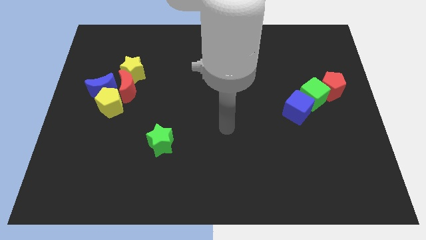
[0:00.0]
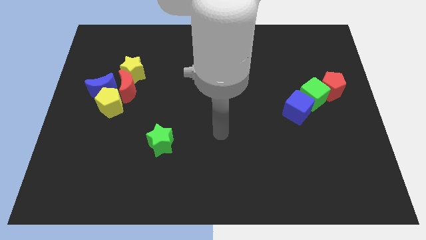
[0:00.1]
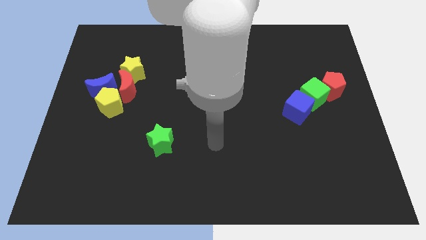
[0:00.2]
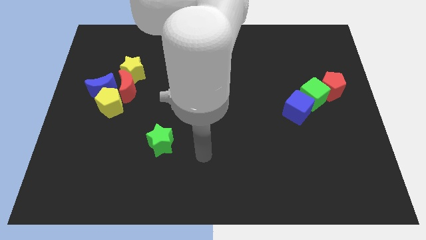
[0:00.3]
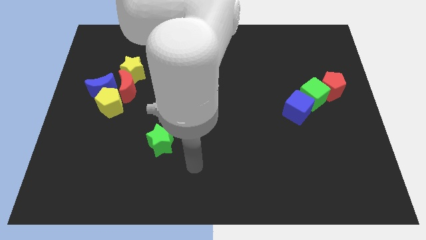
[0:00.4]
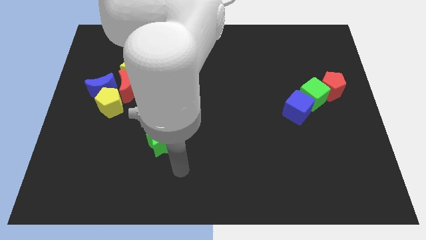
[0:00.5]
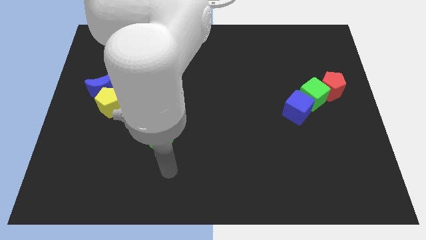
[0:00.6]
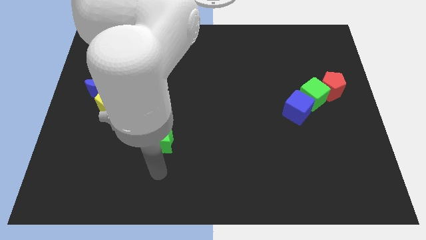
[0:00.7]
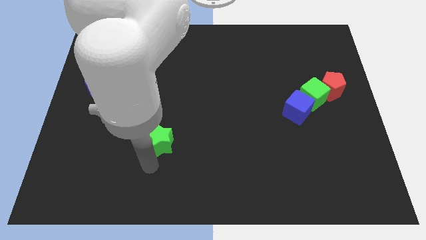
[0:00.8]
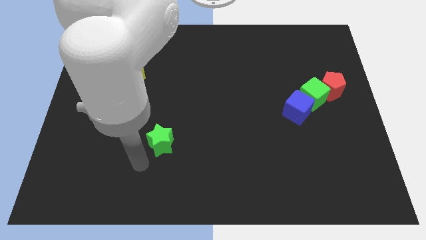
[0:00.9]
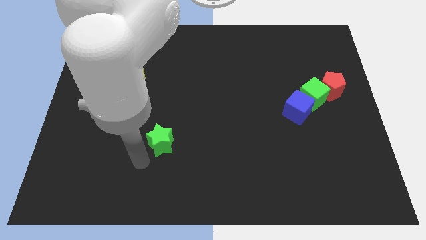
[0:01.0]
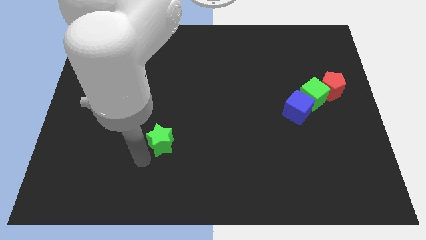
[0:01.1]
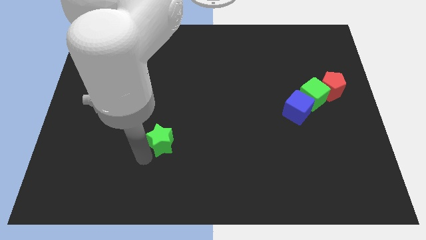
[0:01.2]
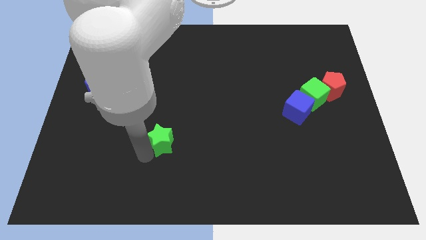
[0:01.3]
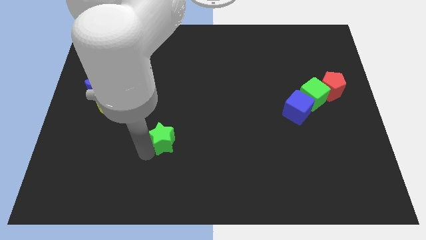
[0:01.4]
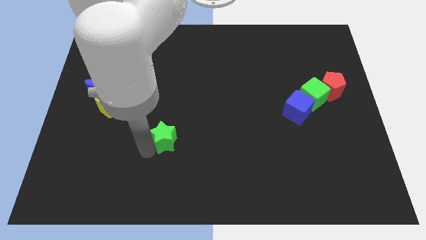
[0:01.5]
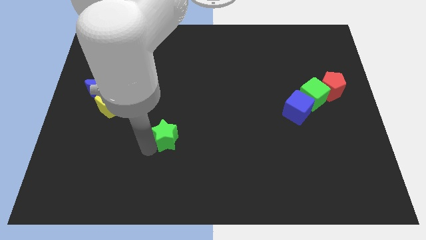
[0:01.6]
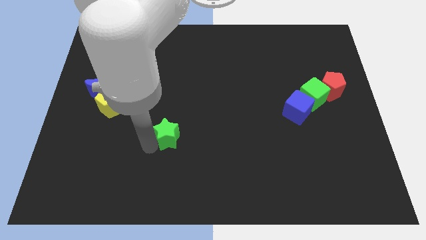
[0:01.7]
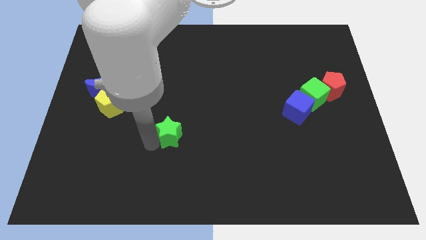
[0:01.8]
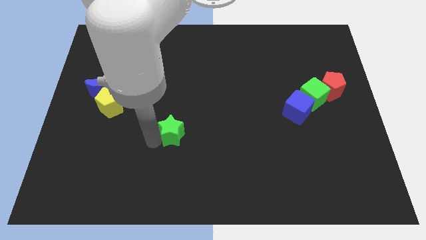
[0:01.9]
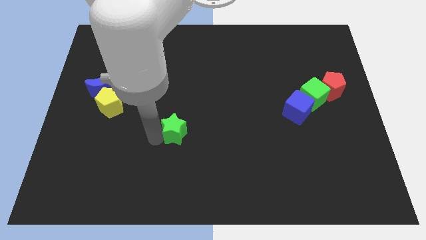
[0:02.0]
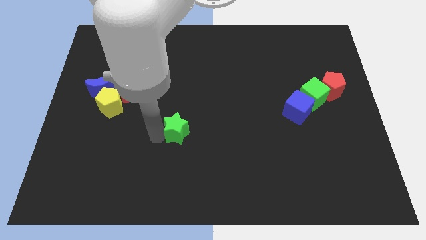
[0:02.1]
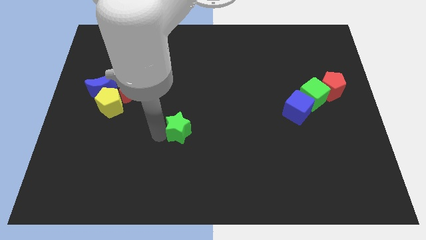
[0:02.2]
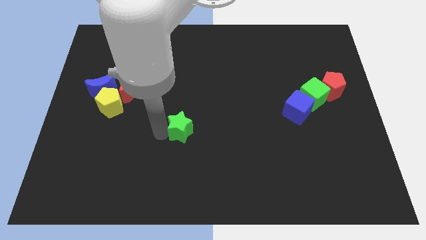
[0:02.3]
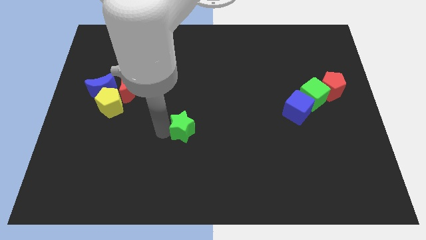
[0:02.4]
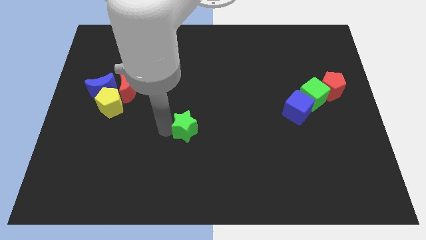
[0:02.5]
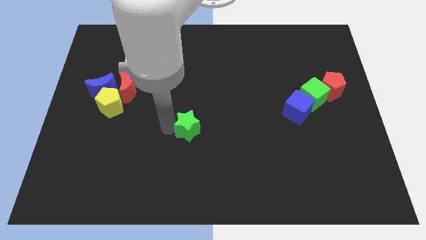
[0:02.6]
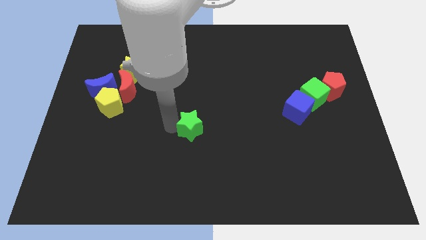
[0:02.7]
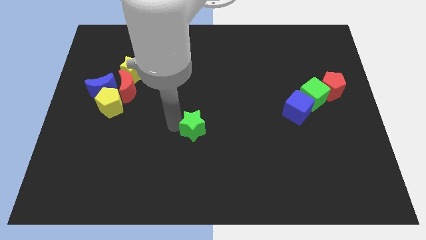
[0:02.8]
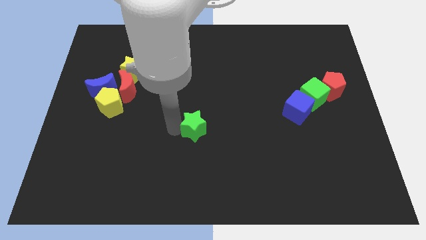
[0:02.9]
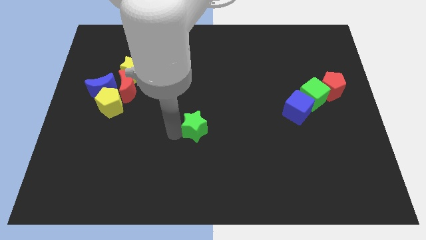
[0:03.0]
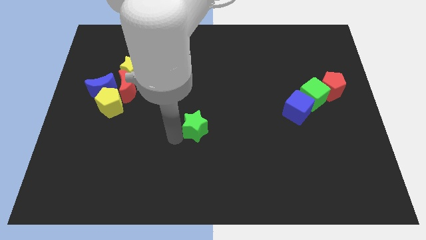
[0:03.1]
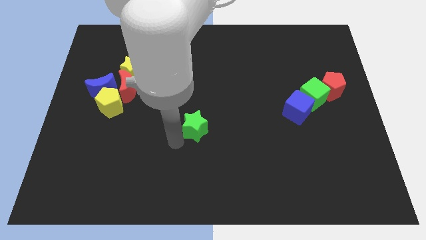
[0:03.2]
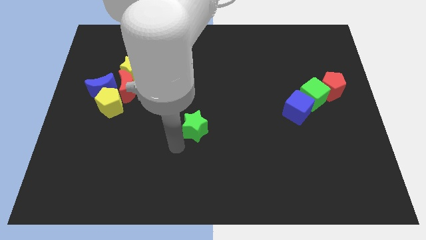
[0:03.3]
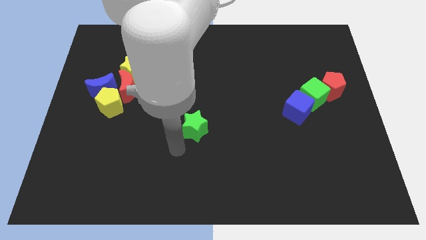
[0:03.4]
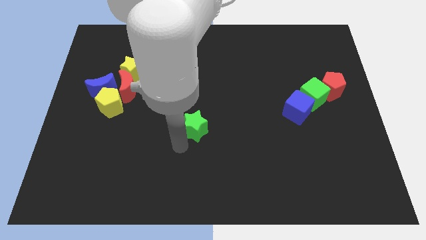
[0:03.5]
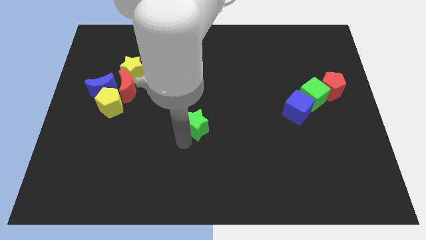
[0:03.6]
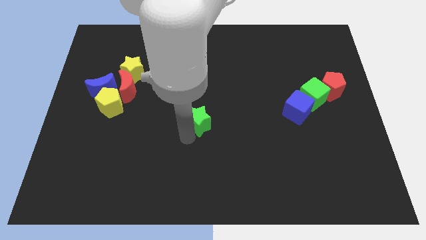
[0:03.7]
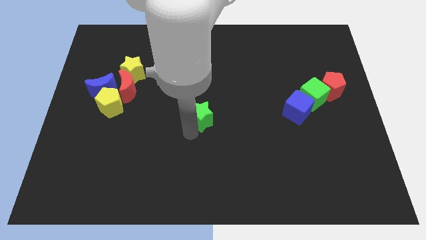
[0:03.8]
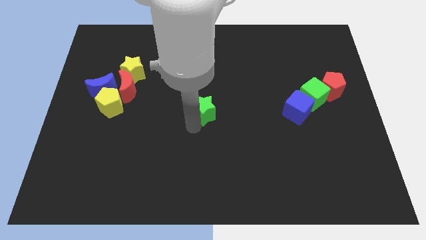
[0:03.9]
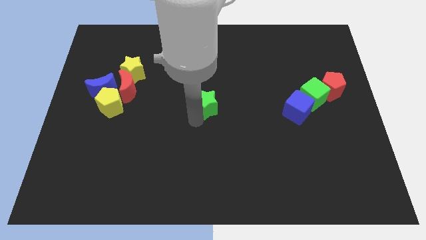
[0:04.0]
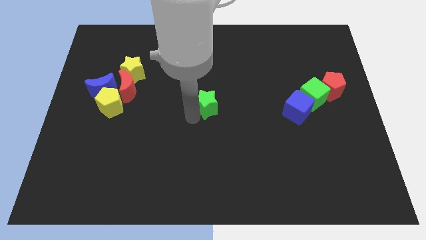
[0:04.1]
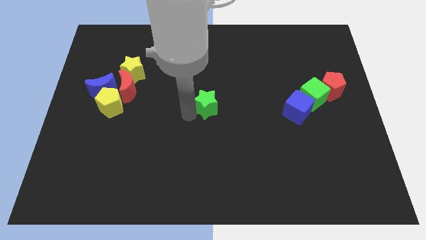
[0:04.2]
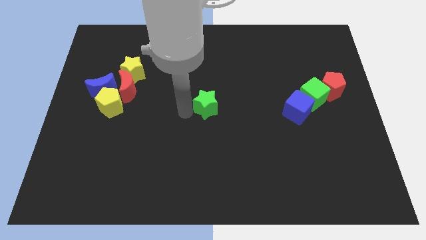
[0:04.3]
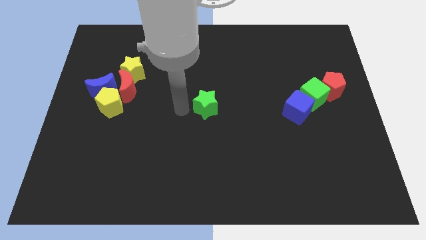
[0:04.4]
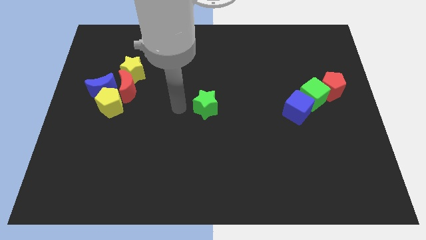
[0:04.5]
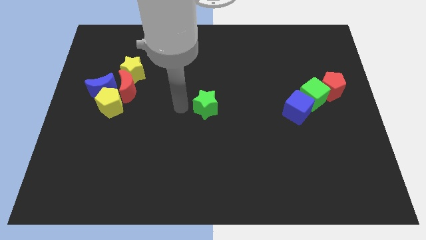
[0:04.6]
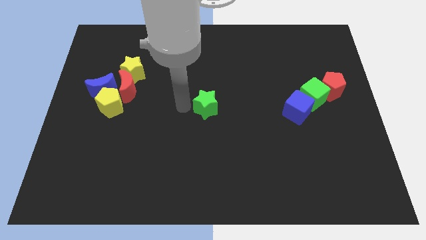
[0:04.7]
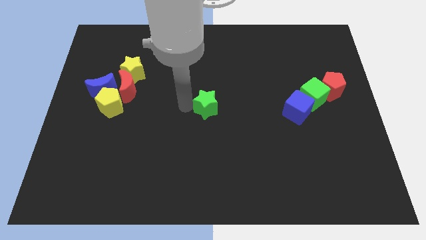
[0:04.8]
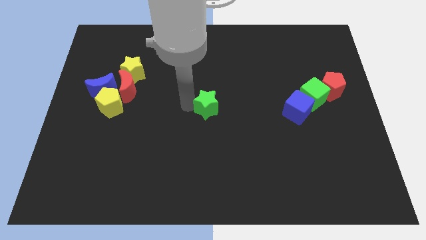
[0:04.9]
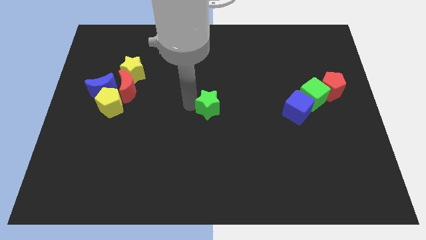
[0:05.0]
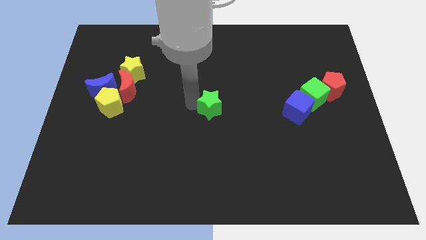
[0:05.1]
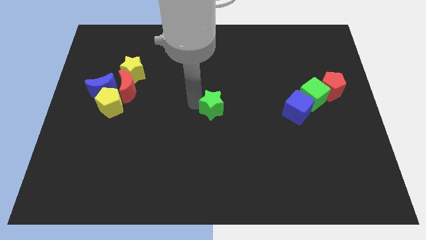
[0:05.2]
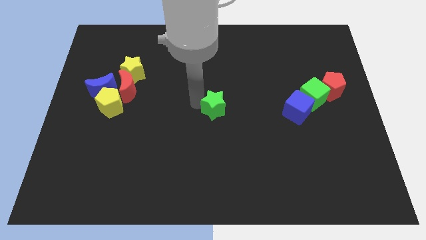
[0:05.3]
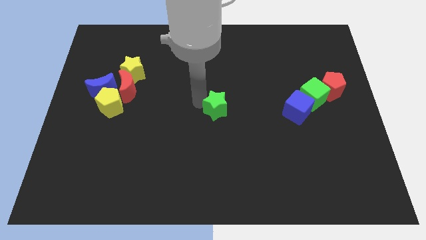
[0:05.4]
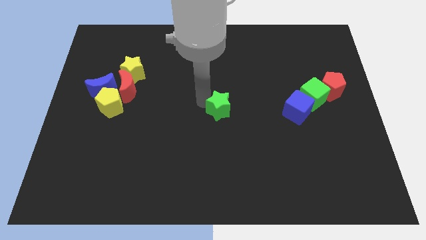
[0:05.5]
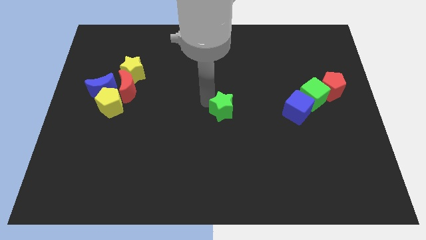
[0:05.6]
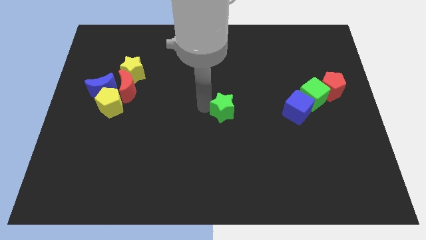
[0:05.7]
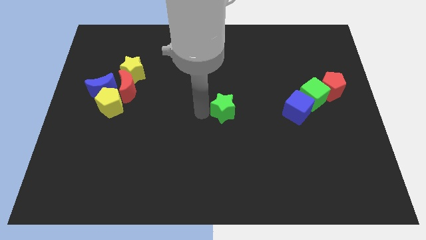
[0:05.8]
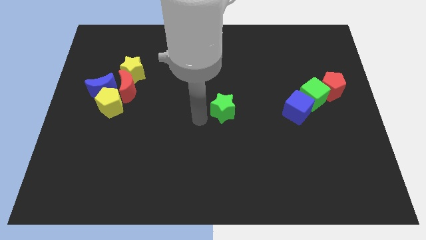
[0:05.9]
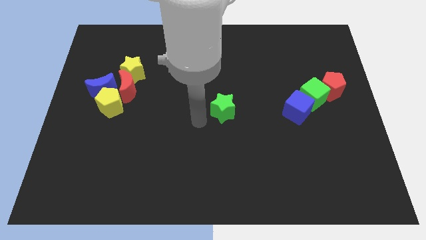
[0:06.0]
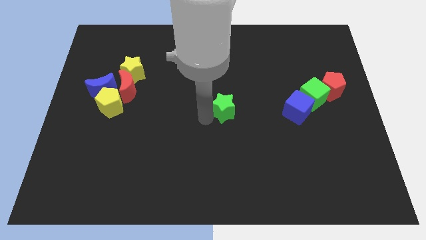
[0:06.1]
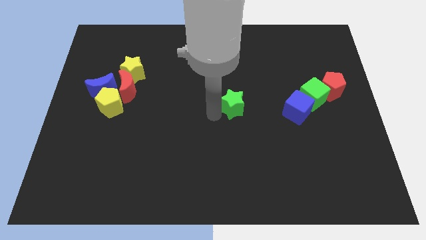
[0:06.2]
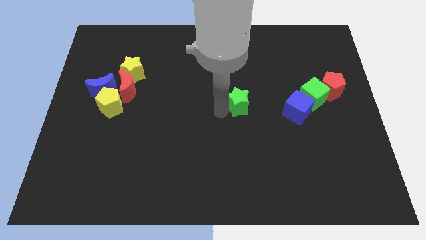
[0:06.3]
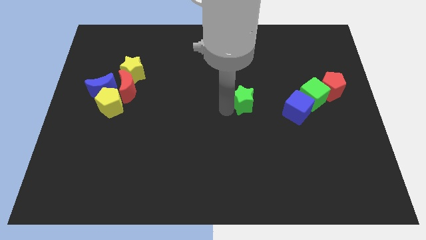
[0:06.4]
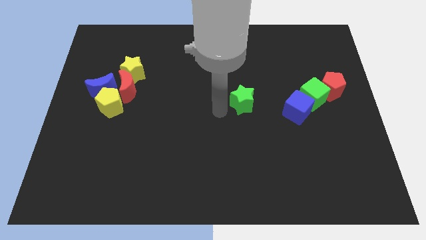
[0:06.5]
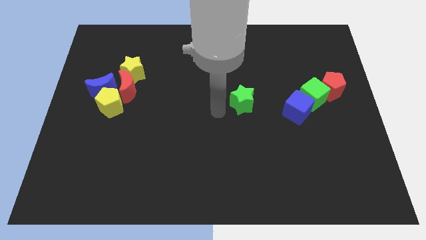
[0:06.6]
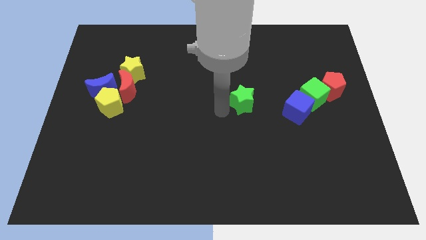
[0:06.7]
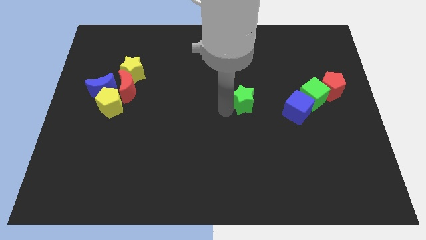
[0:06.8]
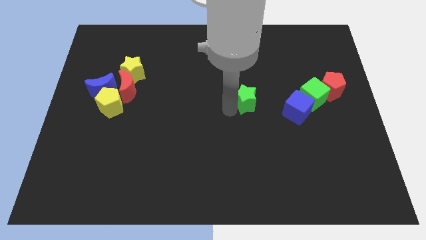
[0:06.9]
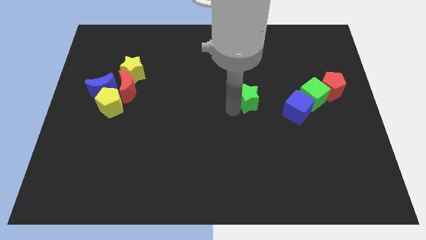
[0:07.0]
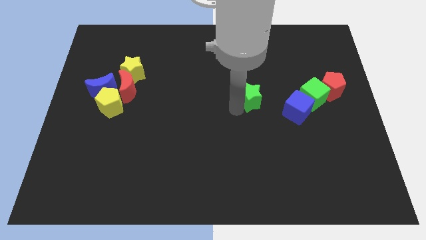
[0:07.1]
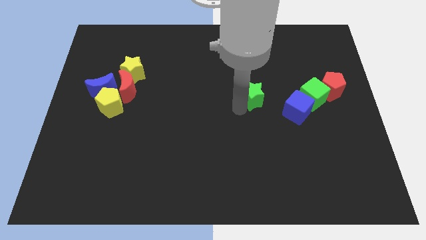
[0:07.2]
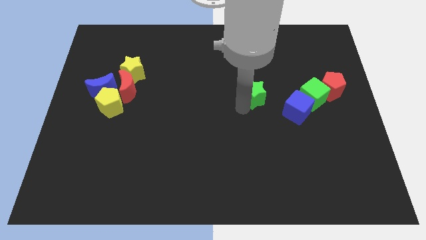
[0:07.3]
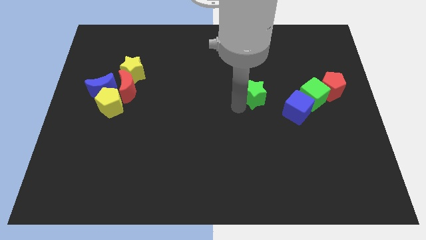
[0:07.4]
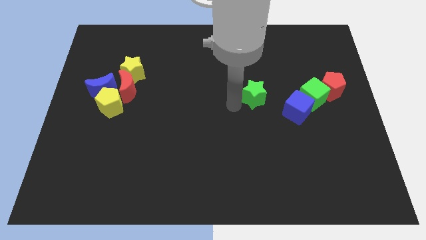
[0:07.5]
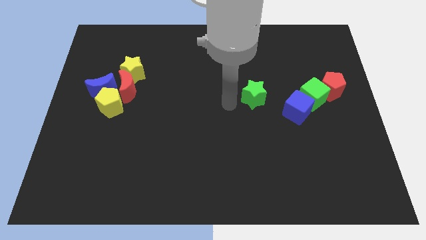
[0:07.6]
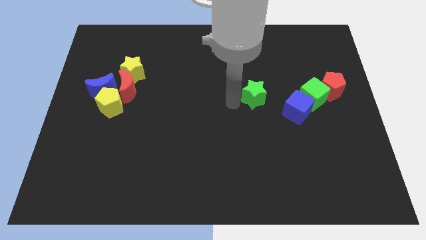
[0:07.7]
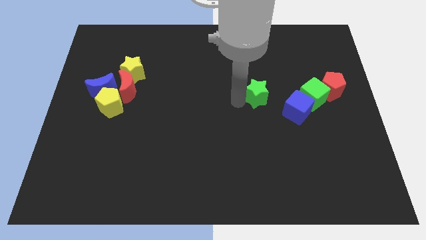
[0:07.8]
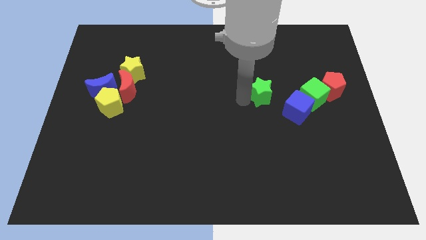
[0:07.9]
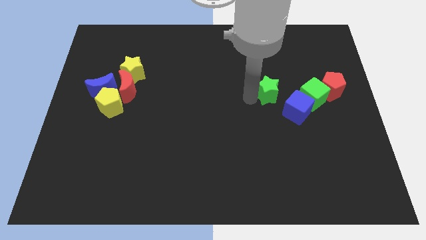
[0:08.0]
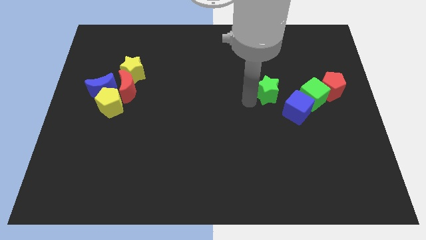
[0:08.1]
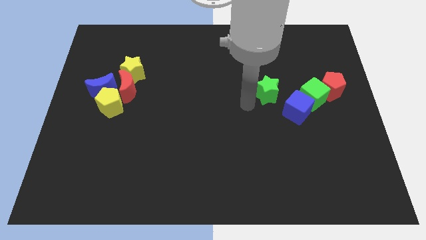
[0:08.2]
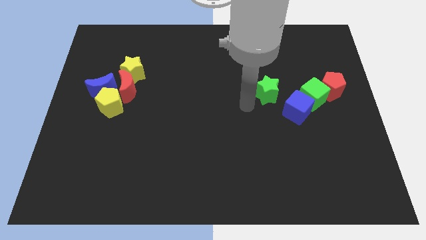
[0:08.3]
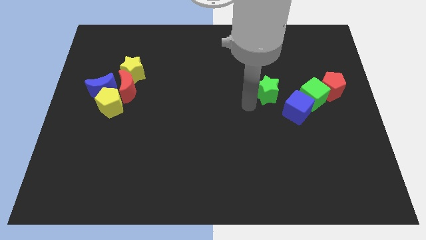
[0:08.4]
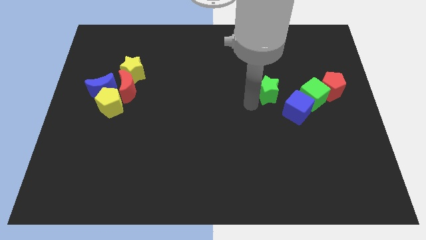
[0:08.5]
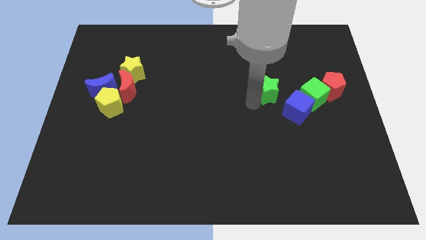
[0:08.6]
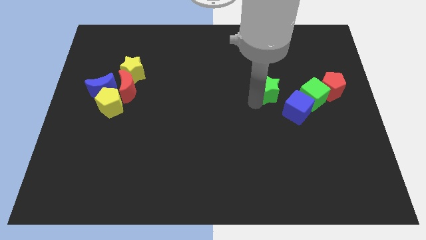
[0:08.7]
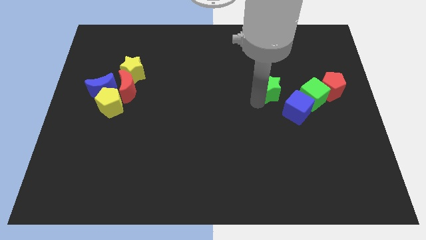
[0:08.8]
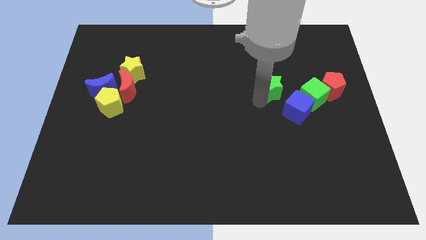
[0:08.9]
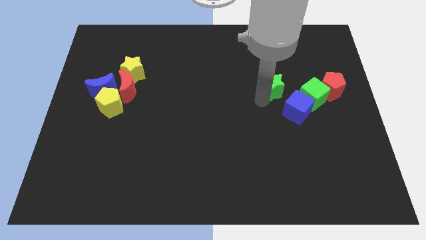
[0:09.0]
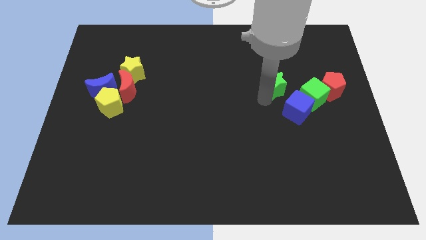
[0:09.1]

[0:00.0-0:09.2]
put the green star to the top of the blue cube
